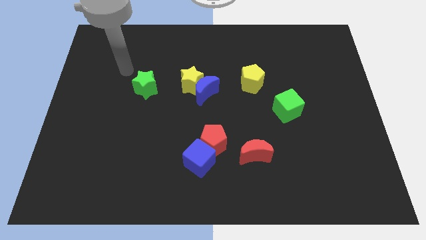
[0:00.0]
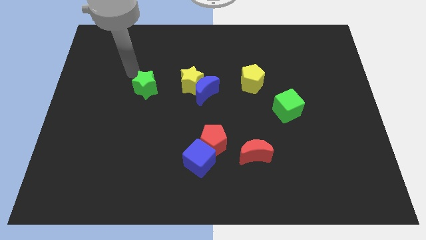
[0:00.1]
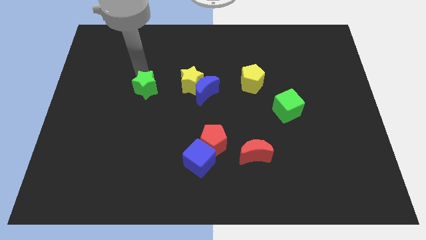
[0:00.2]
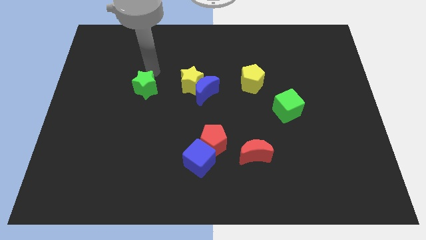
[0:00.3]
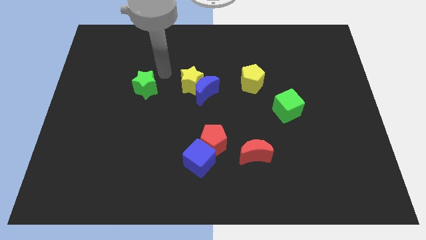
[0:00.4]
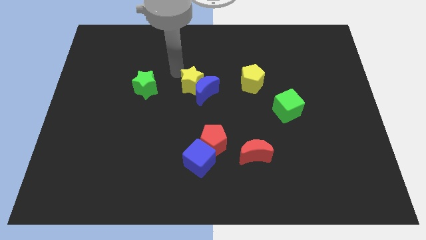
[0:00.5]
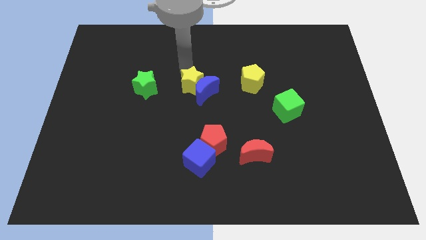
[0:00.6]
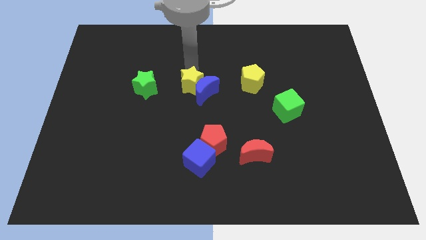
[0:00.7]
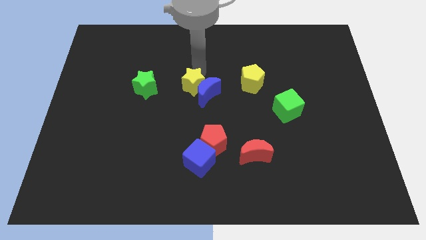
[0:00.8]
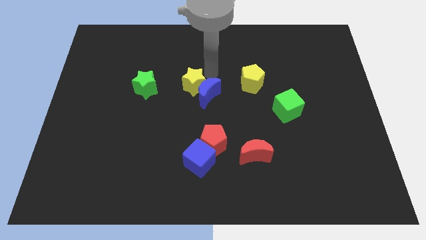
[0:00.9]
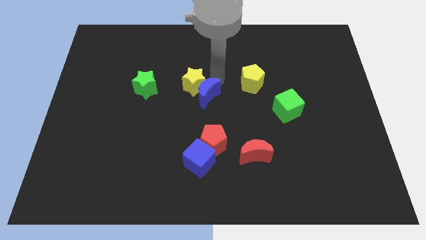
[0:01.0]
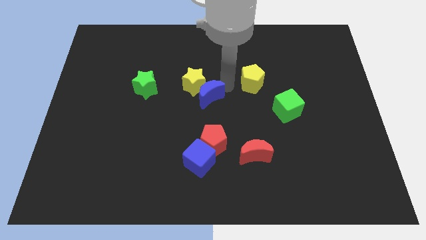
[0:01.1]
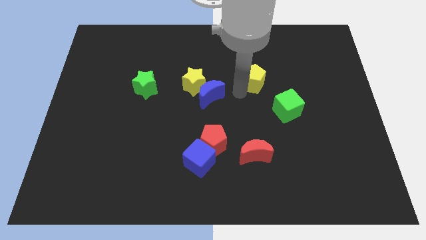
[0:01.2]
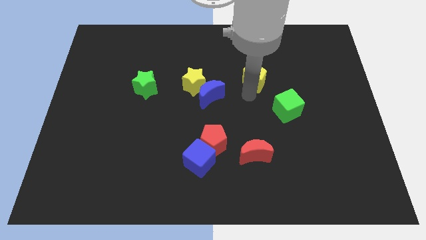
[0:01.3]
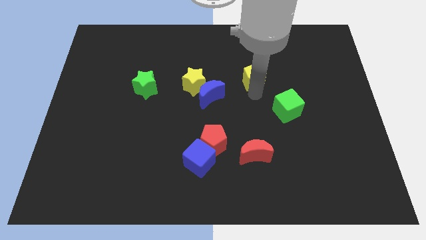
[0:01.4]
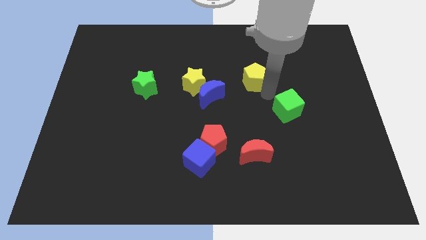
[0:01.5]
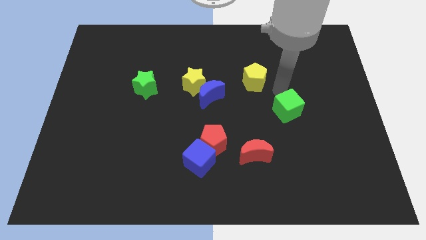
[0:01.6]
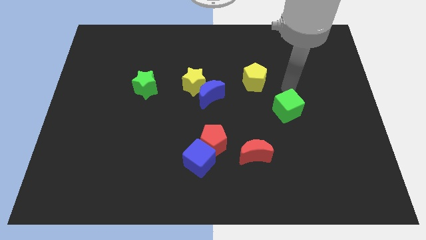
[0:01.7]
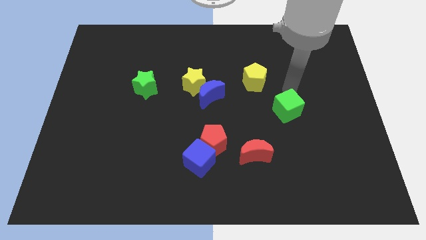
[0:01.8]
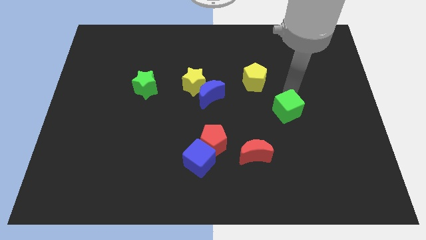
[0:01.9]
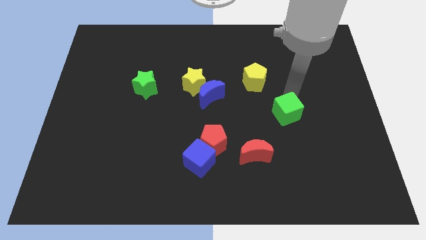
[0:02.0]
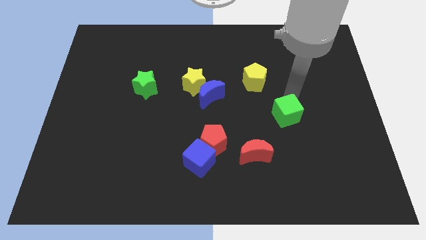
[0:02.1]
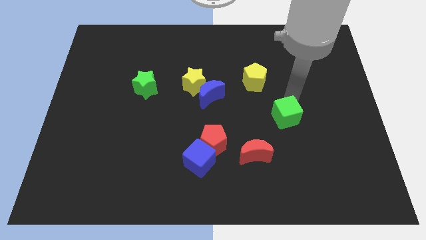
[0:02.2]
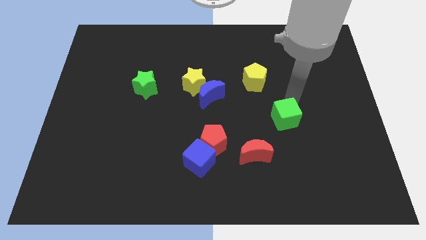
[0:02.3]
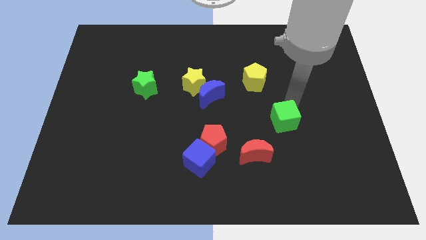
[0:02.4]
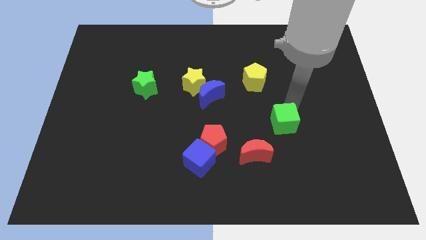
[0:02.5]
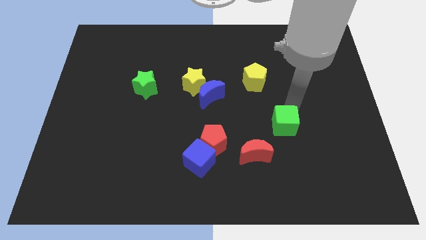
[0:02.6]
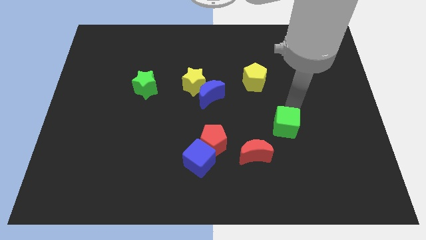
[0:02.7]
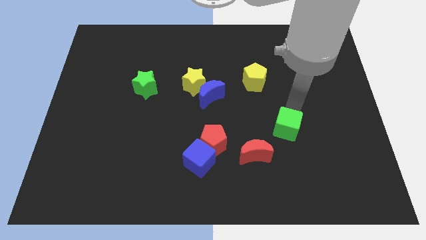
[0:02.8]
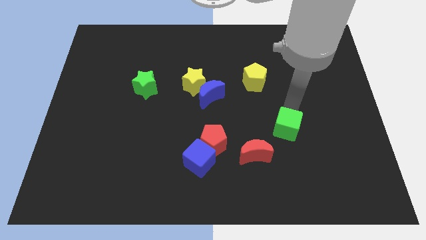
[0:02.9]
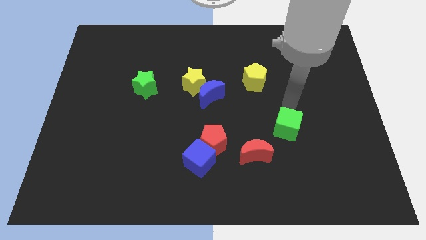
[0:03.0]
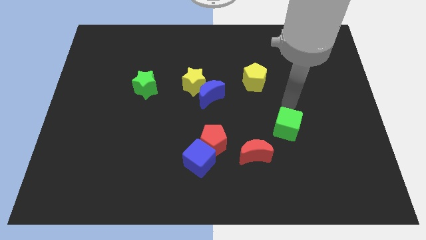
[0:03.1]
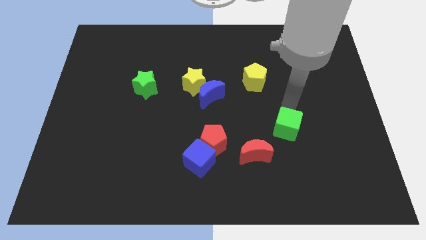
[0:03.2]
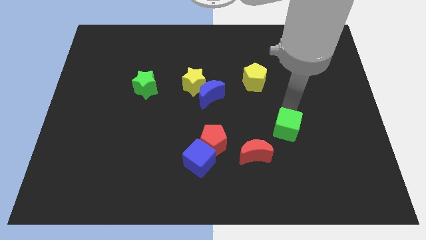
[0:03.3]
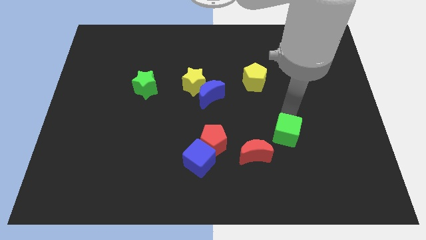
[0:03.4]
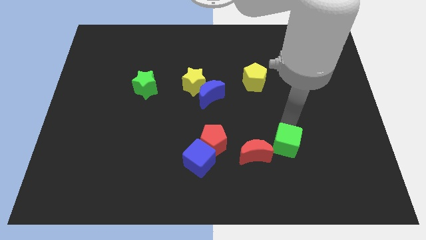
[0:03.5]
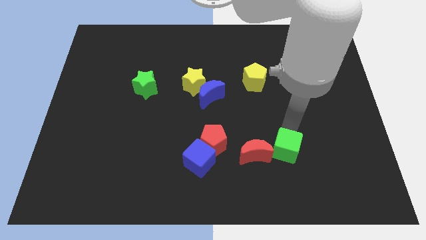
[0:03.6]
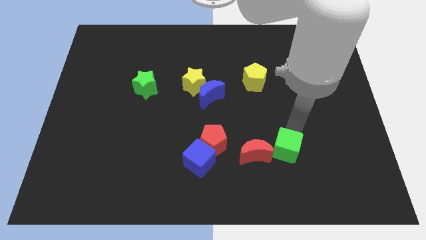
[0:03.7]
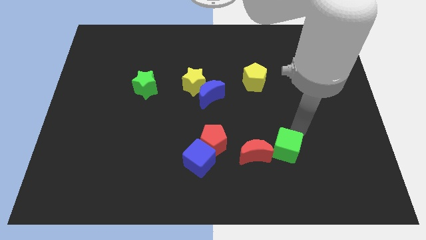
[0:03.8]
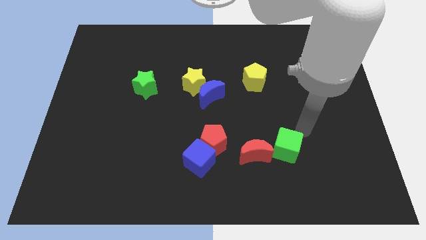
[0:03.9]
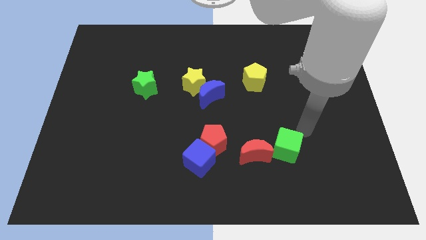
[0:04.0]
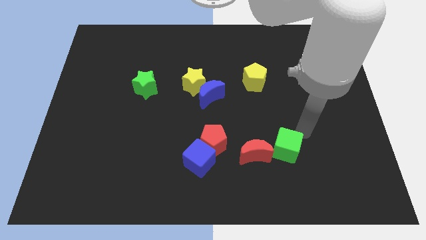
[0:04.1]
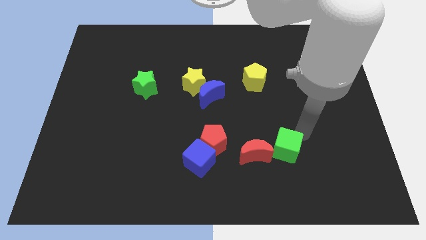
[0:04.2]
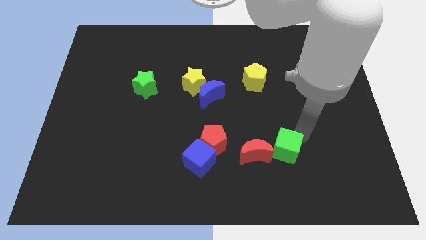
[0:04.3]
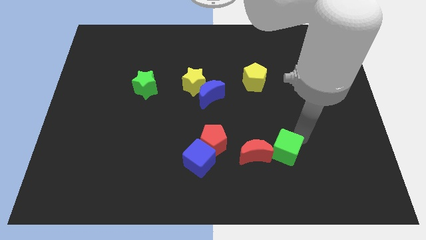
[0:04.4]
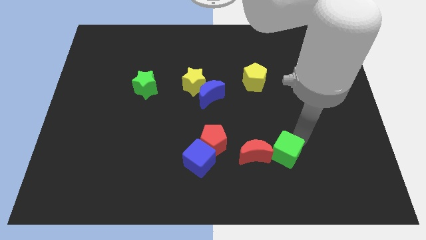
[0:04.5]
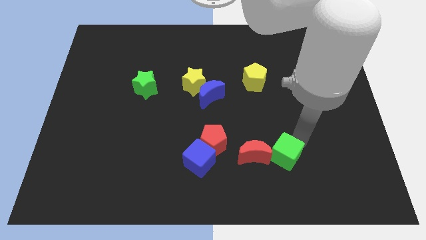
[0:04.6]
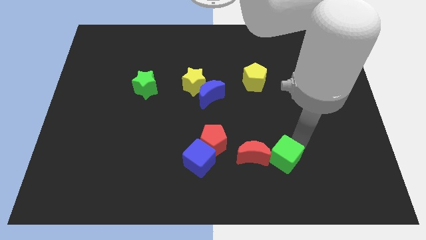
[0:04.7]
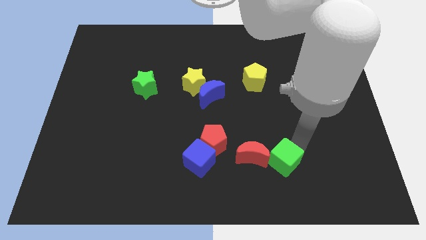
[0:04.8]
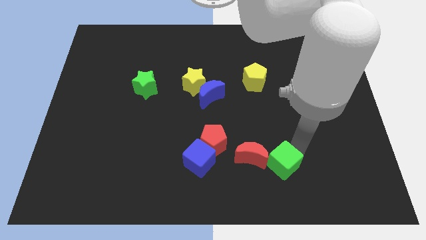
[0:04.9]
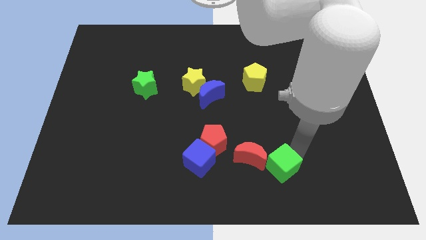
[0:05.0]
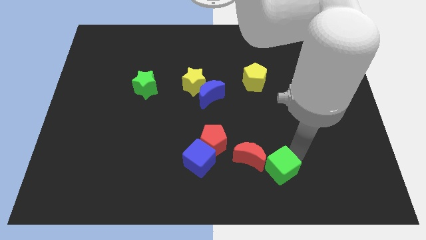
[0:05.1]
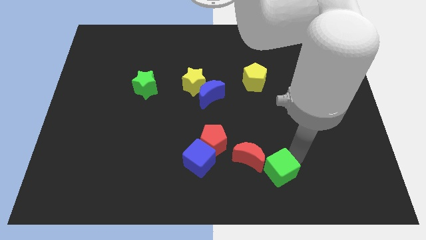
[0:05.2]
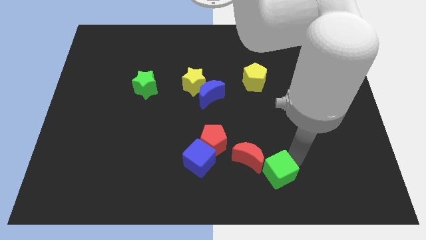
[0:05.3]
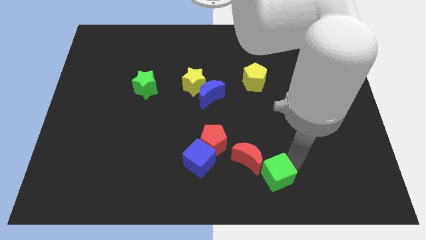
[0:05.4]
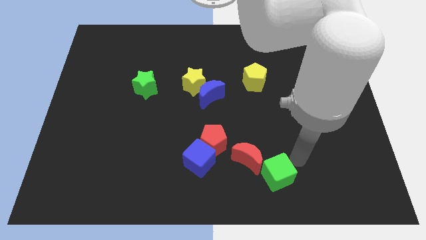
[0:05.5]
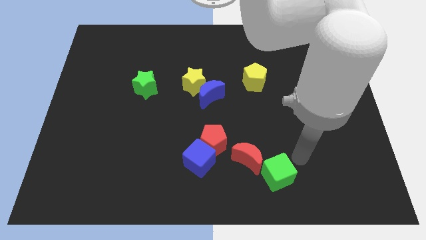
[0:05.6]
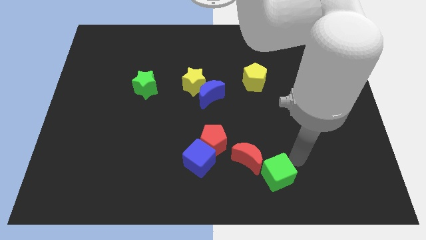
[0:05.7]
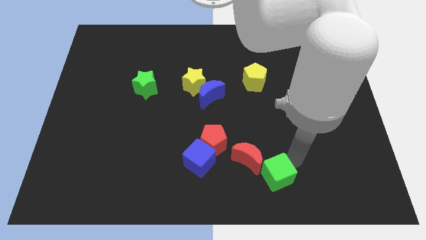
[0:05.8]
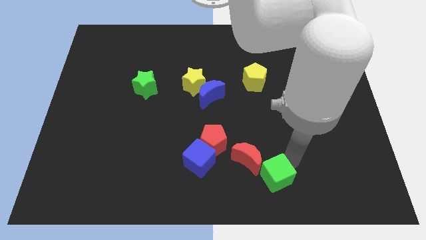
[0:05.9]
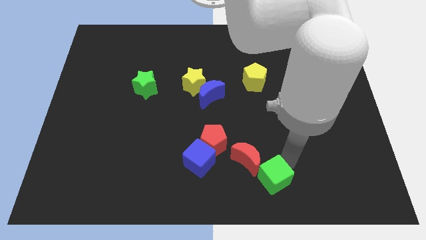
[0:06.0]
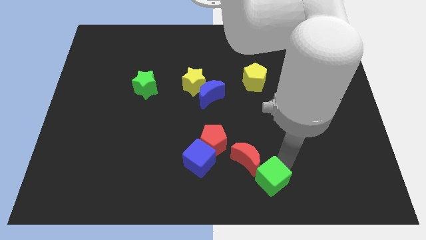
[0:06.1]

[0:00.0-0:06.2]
push the green cube to the bottom side
